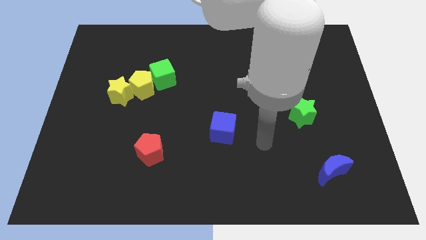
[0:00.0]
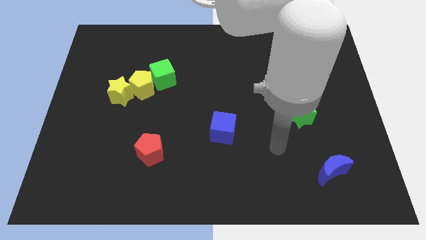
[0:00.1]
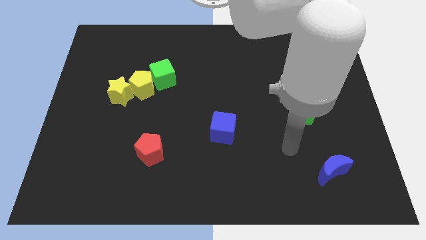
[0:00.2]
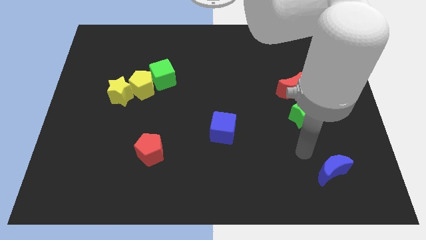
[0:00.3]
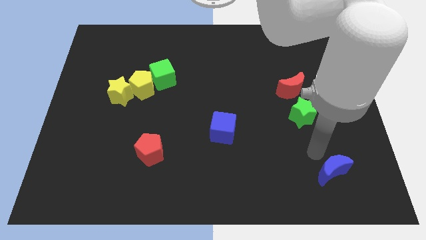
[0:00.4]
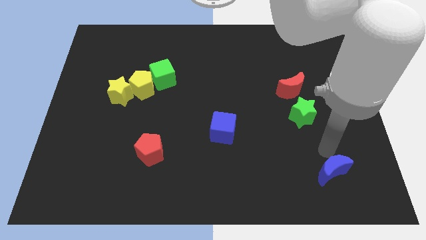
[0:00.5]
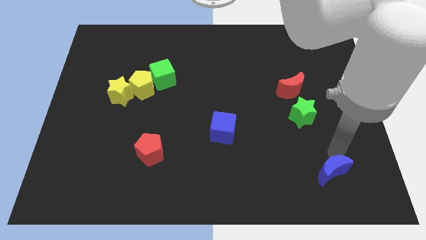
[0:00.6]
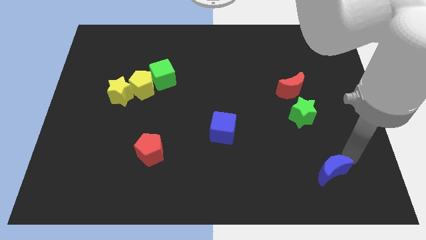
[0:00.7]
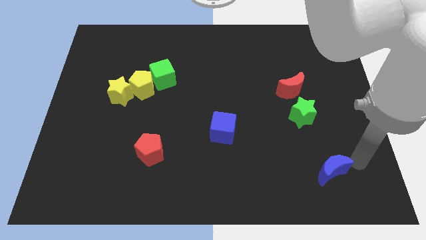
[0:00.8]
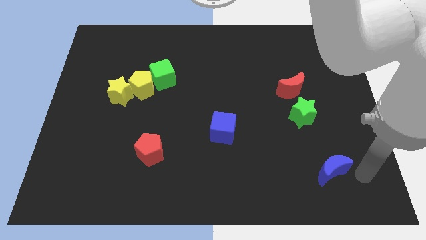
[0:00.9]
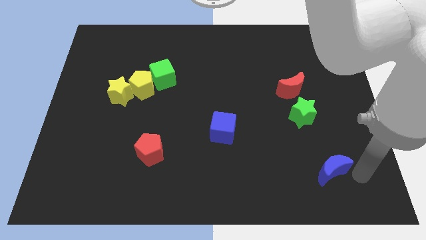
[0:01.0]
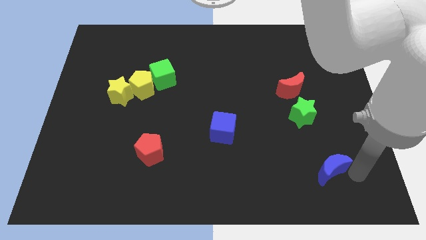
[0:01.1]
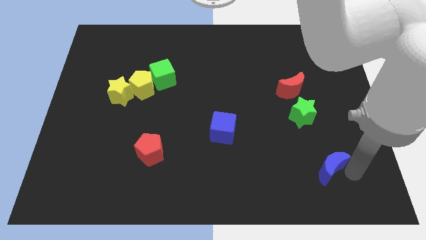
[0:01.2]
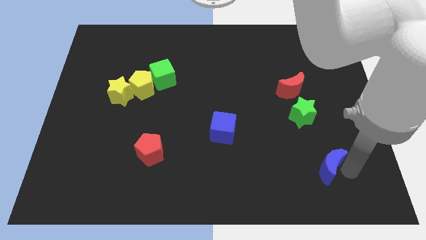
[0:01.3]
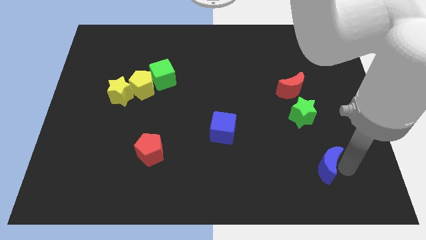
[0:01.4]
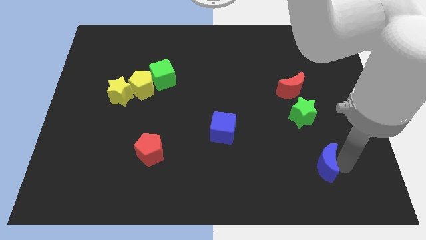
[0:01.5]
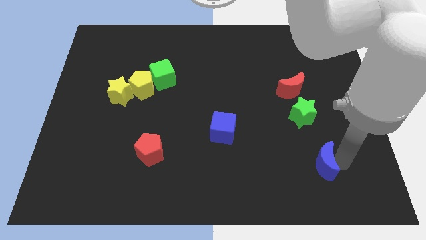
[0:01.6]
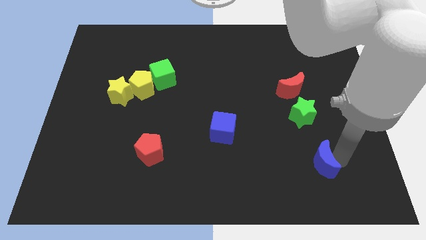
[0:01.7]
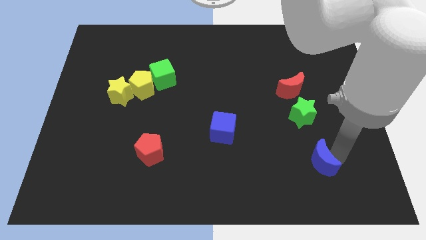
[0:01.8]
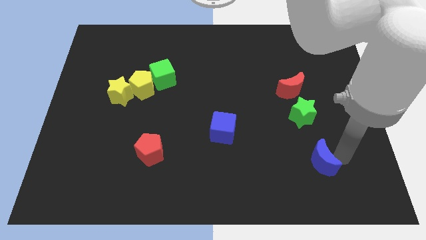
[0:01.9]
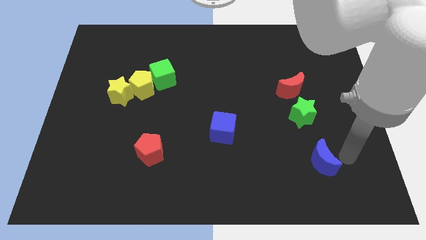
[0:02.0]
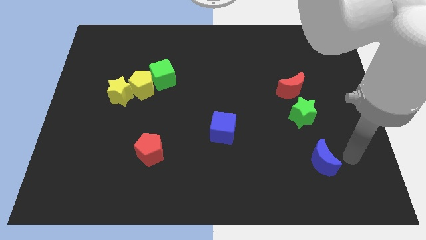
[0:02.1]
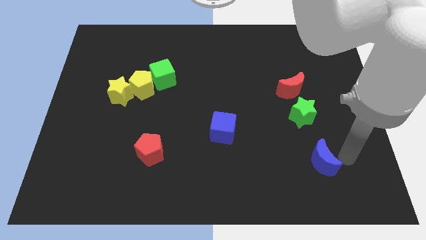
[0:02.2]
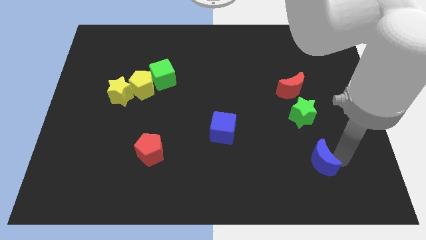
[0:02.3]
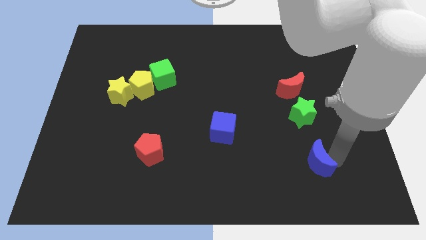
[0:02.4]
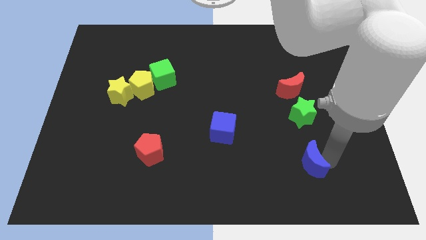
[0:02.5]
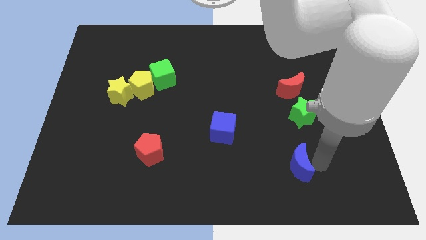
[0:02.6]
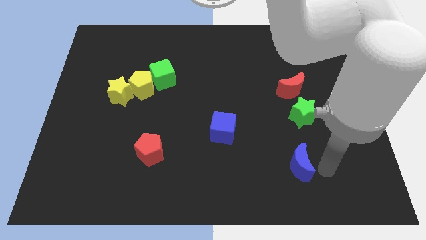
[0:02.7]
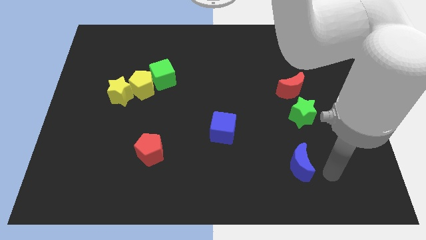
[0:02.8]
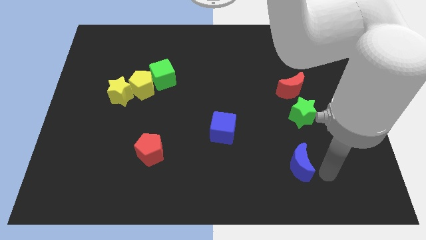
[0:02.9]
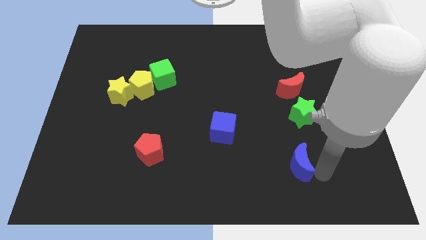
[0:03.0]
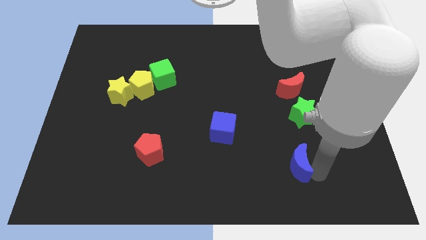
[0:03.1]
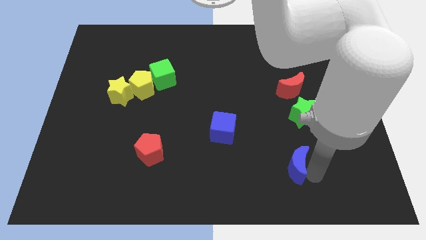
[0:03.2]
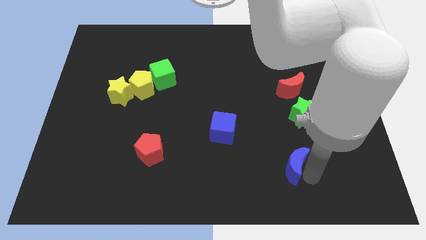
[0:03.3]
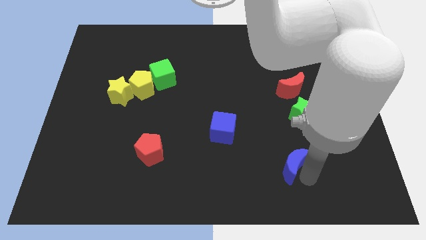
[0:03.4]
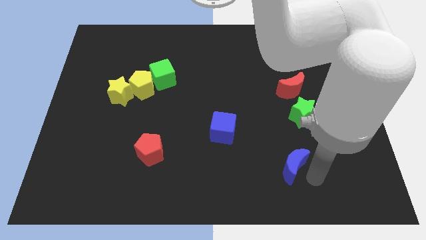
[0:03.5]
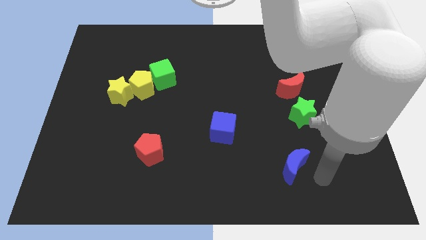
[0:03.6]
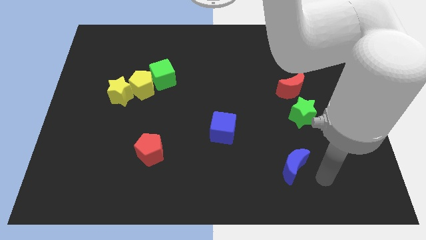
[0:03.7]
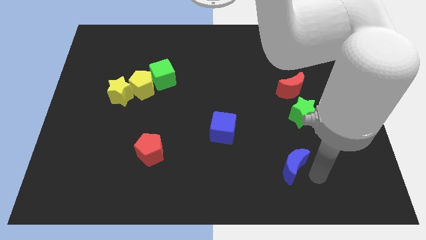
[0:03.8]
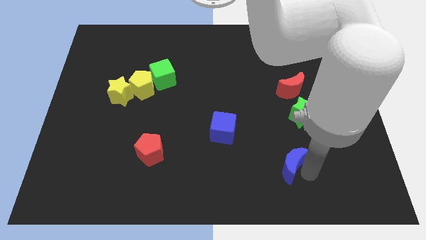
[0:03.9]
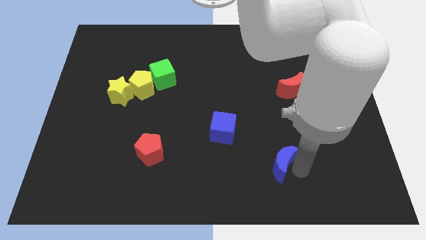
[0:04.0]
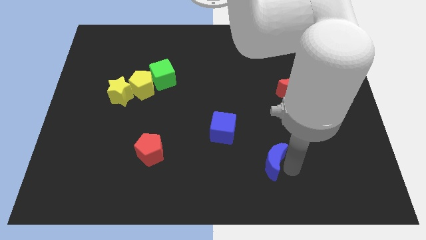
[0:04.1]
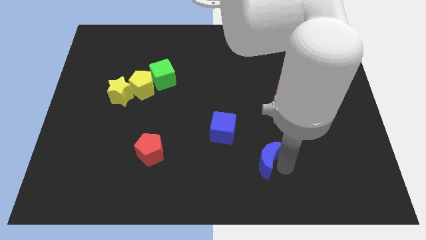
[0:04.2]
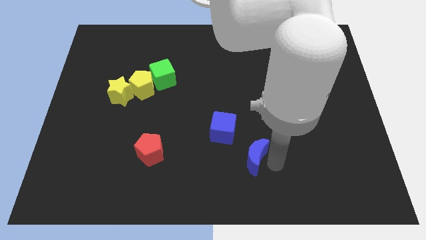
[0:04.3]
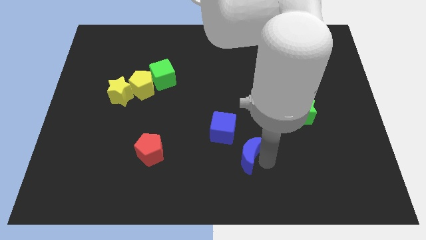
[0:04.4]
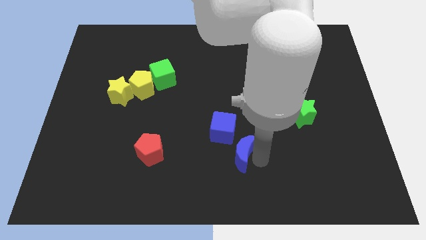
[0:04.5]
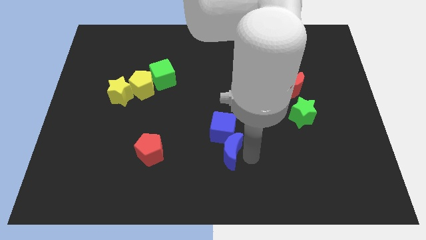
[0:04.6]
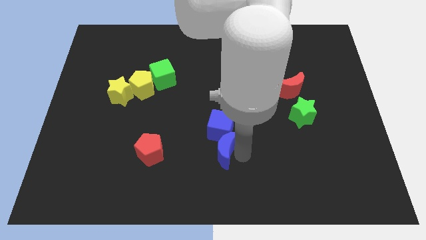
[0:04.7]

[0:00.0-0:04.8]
slide the blue moon diagonally down and to the left of the blue cube

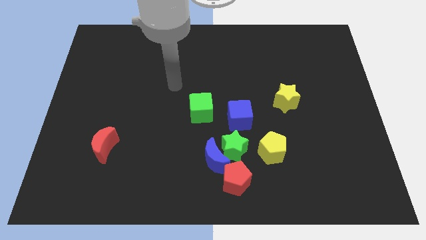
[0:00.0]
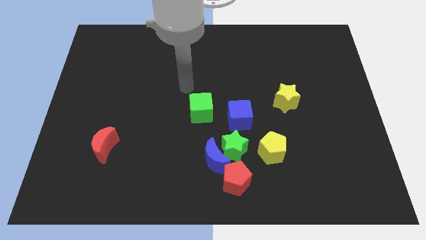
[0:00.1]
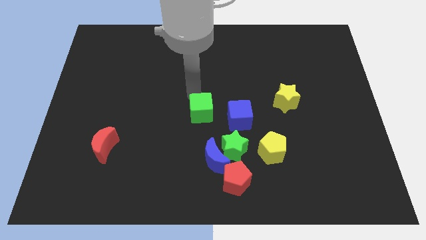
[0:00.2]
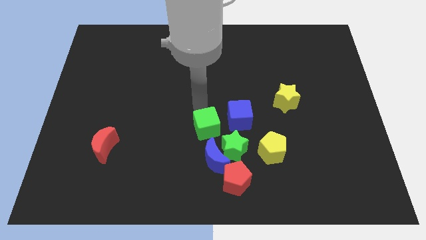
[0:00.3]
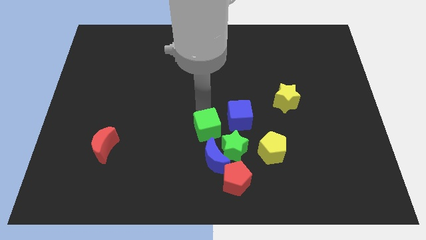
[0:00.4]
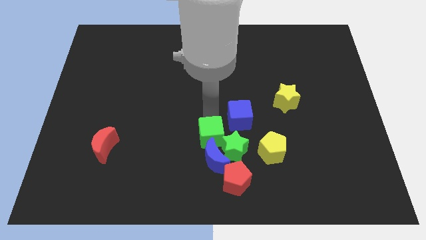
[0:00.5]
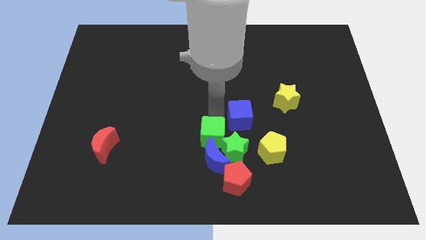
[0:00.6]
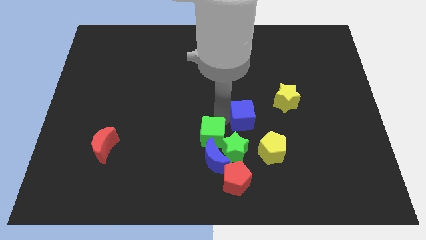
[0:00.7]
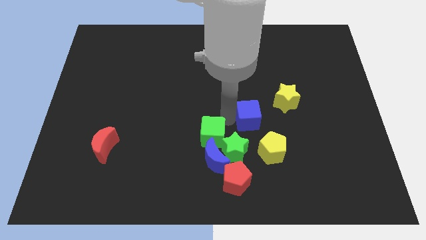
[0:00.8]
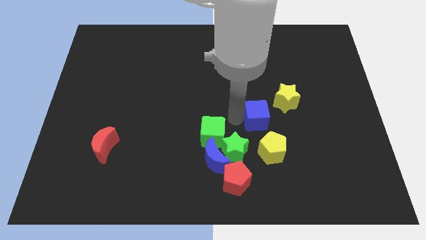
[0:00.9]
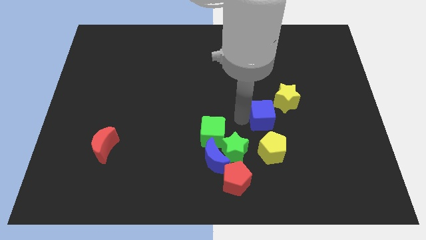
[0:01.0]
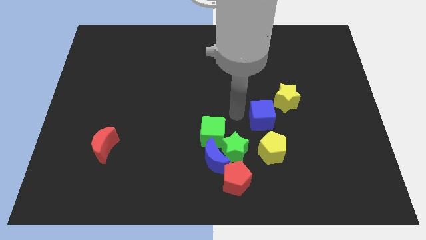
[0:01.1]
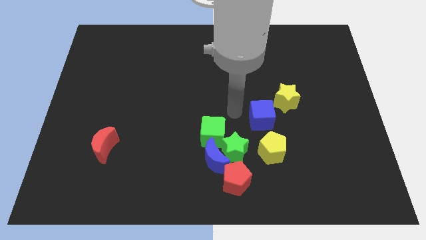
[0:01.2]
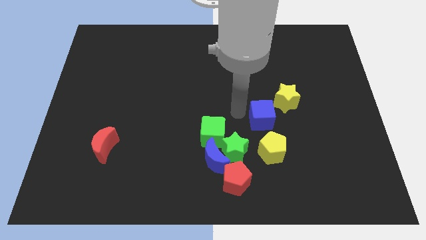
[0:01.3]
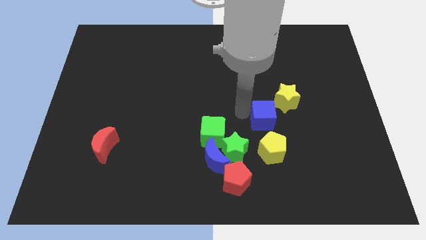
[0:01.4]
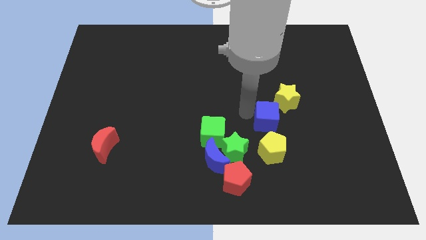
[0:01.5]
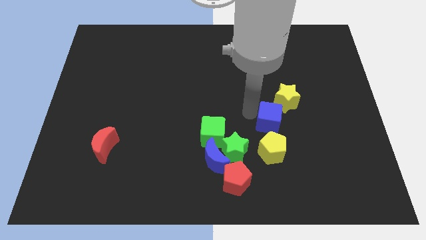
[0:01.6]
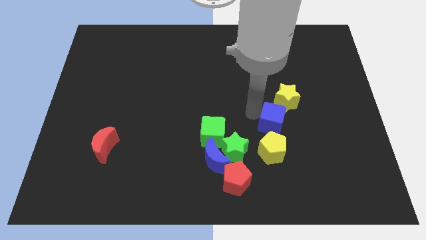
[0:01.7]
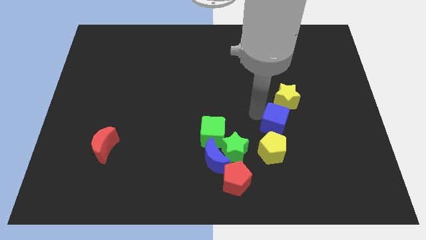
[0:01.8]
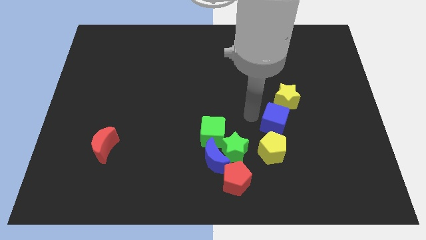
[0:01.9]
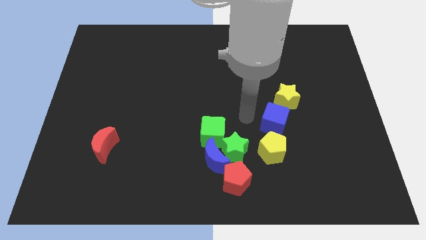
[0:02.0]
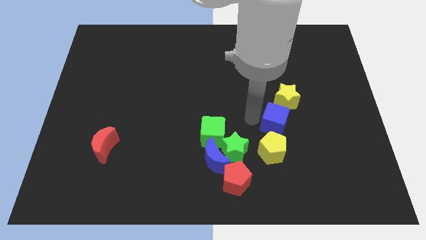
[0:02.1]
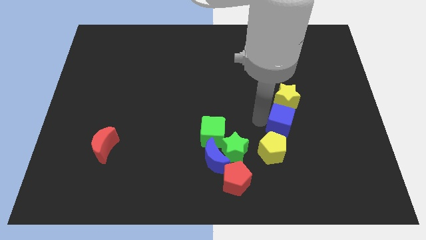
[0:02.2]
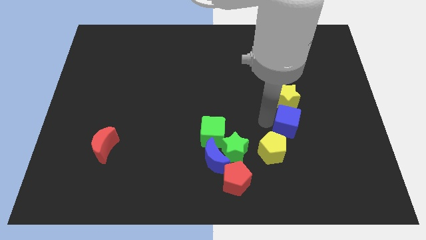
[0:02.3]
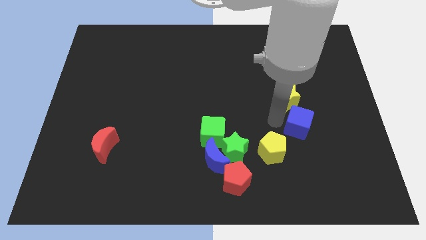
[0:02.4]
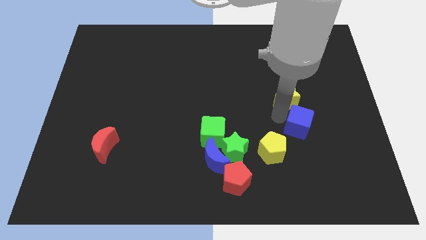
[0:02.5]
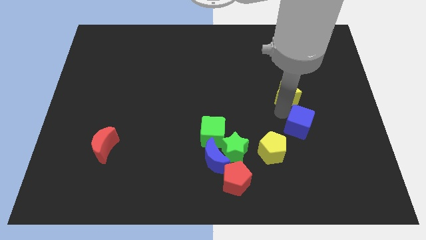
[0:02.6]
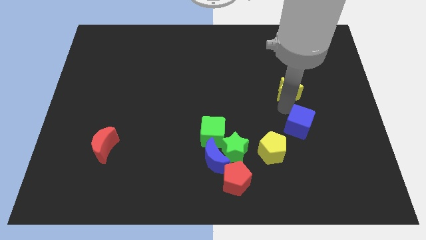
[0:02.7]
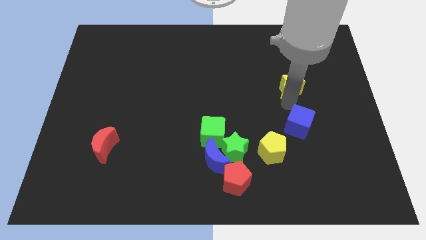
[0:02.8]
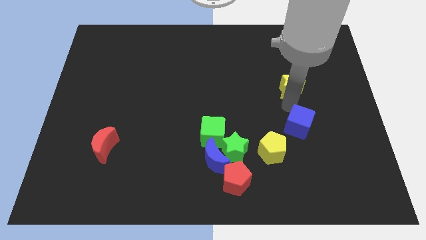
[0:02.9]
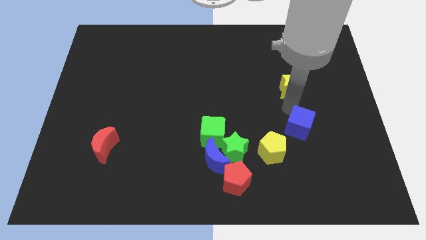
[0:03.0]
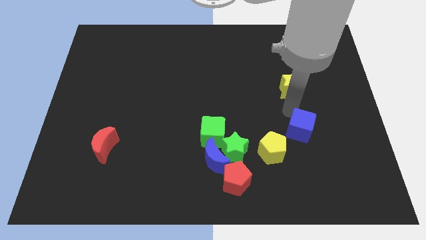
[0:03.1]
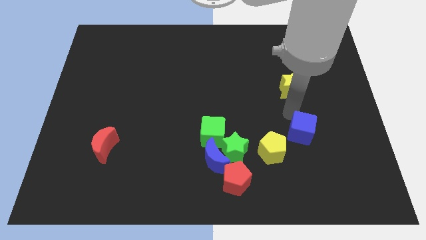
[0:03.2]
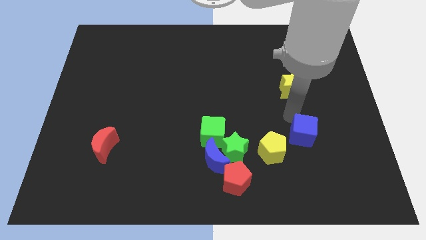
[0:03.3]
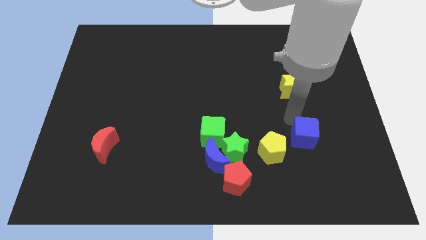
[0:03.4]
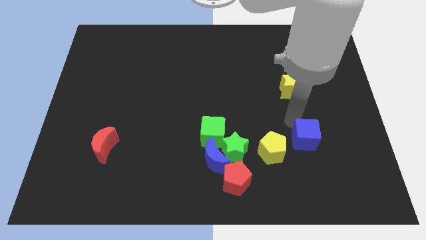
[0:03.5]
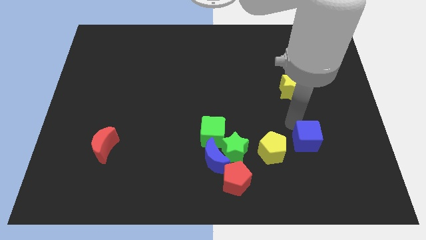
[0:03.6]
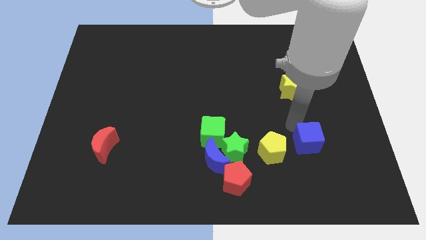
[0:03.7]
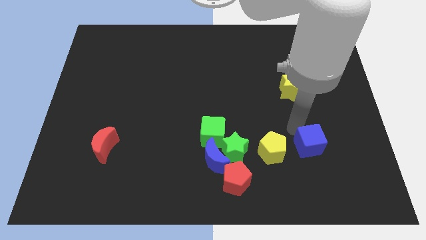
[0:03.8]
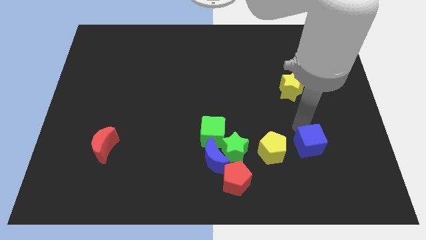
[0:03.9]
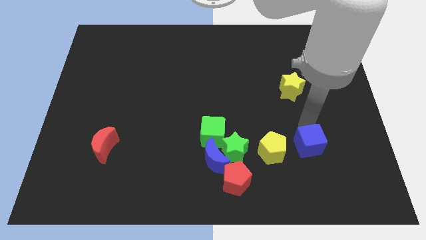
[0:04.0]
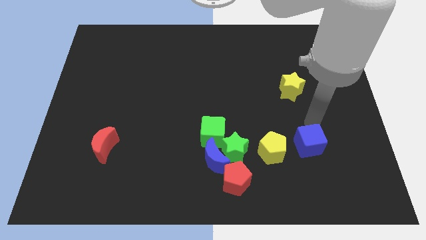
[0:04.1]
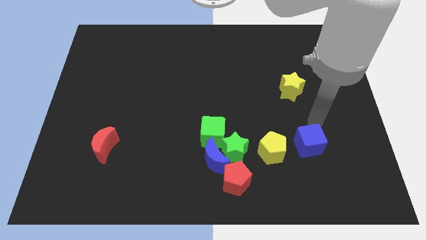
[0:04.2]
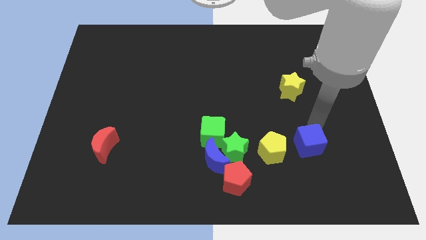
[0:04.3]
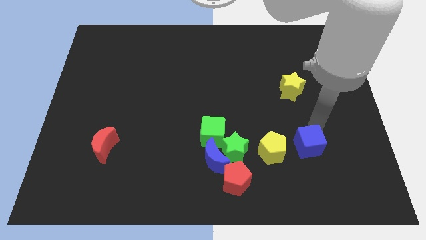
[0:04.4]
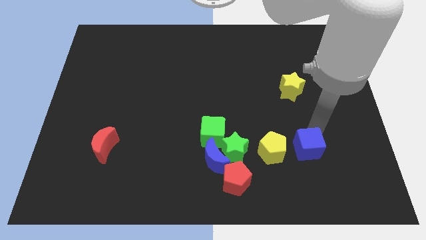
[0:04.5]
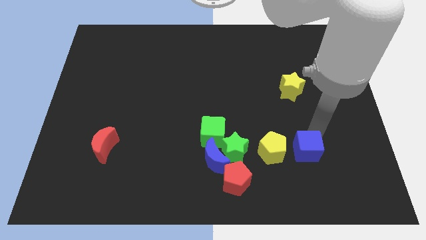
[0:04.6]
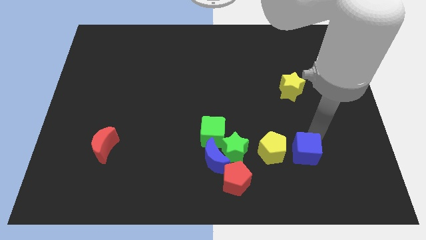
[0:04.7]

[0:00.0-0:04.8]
push the blue cube diagonally down and to the right of the yellow pentagon
